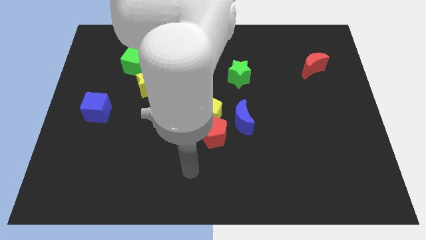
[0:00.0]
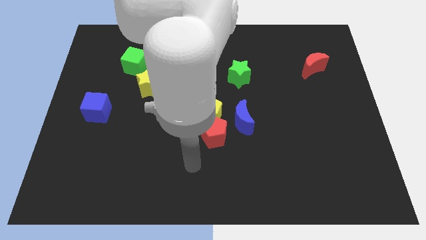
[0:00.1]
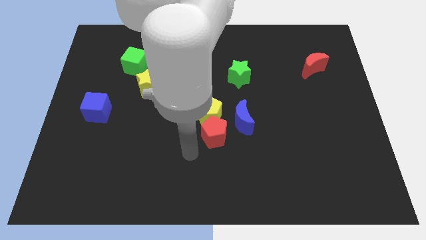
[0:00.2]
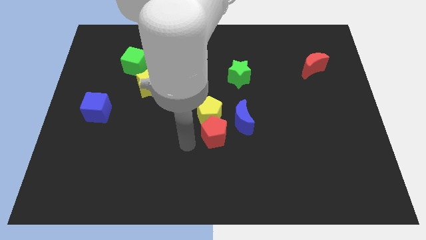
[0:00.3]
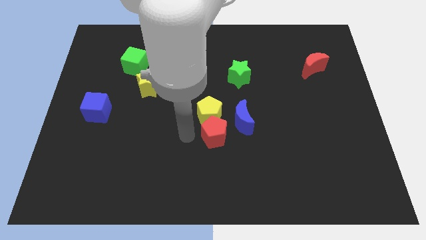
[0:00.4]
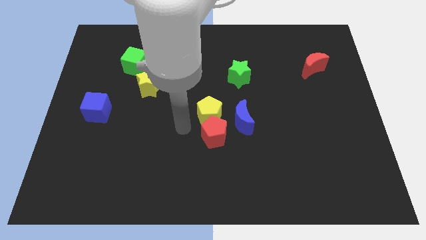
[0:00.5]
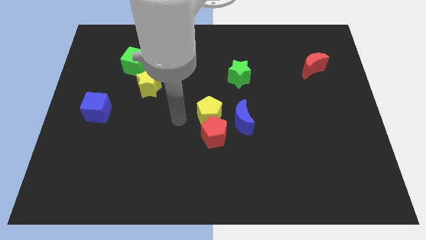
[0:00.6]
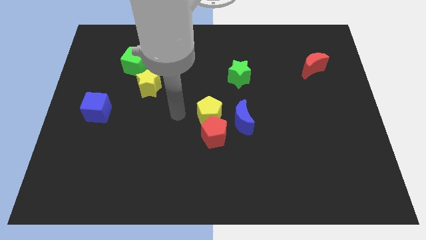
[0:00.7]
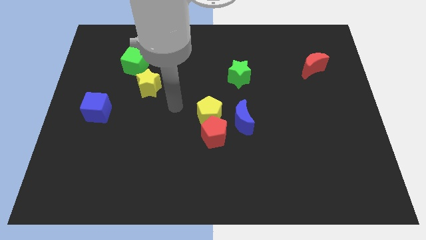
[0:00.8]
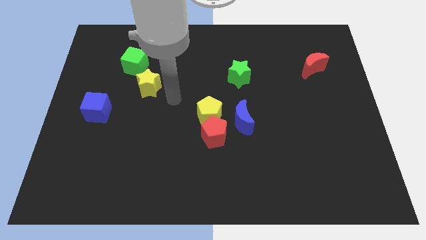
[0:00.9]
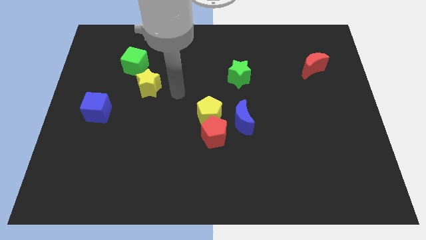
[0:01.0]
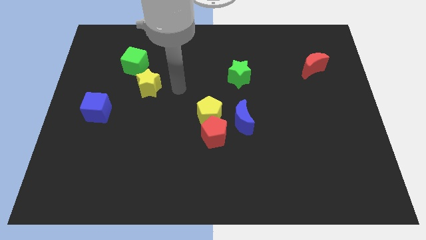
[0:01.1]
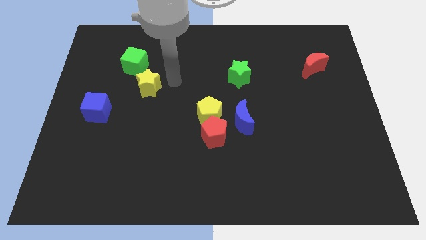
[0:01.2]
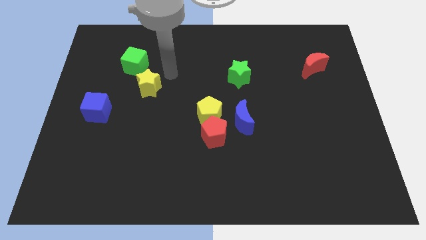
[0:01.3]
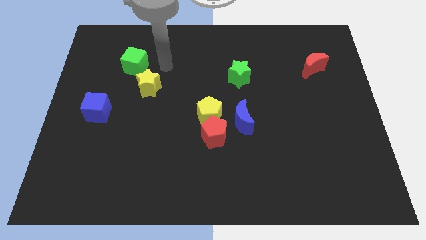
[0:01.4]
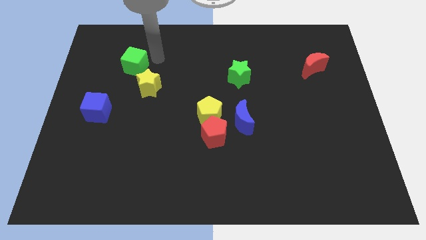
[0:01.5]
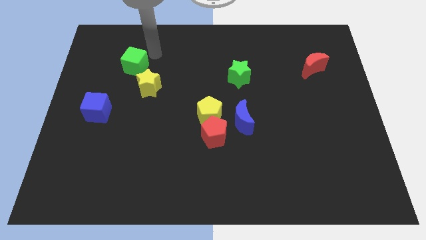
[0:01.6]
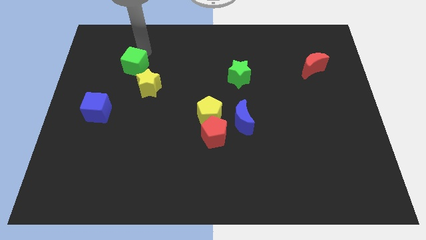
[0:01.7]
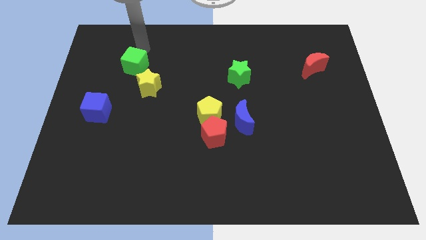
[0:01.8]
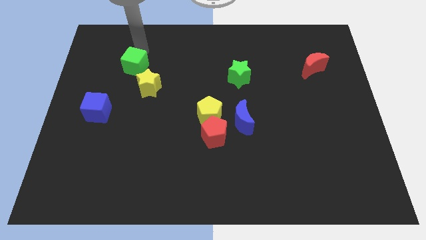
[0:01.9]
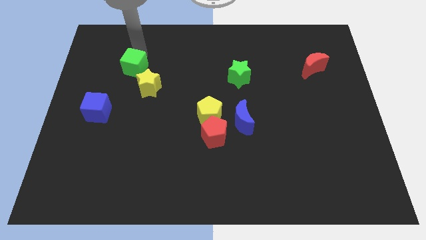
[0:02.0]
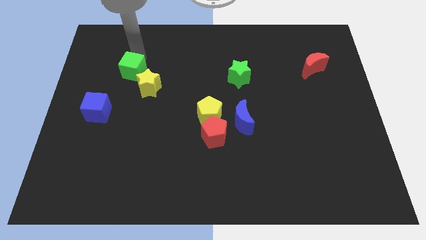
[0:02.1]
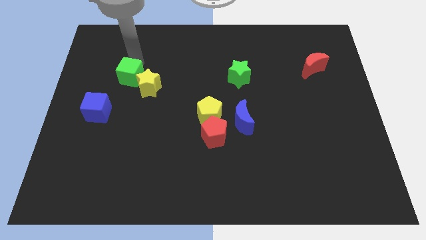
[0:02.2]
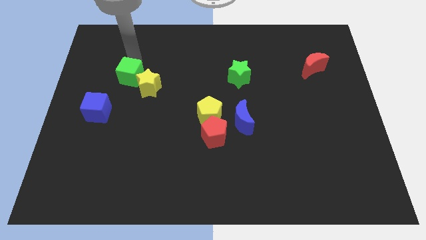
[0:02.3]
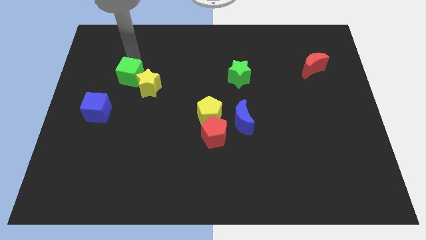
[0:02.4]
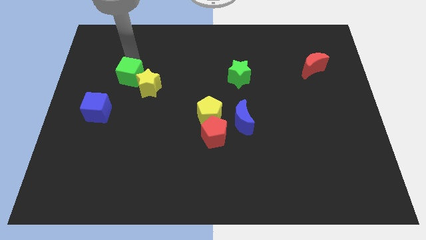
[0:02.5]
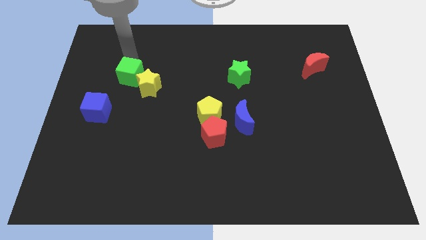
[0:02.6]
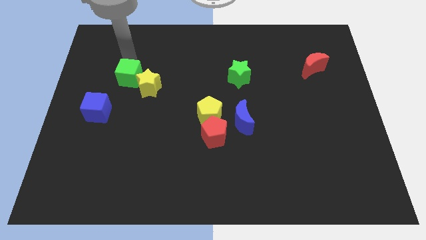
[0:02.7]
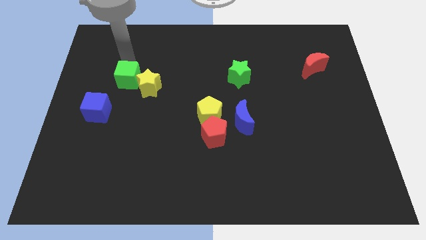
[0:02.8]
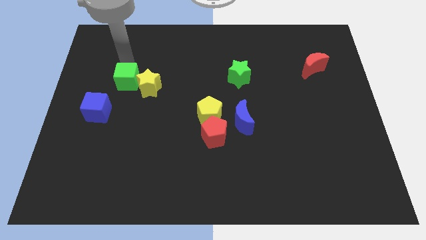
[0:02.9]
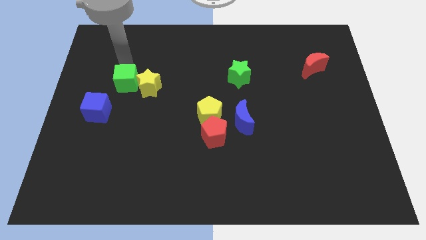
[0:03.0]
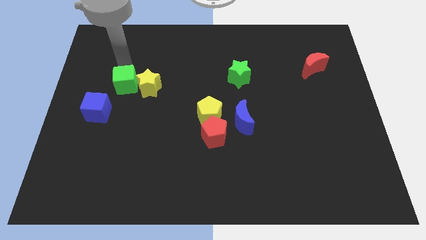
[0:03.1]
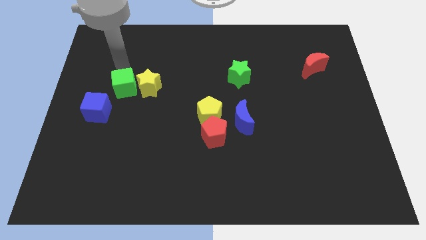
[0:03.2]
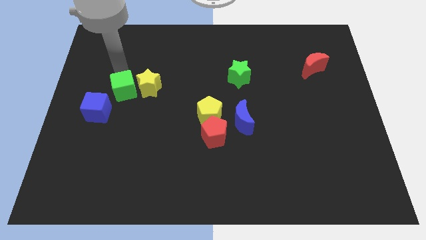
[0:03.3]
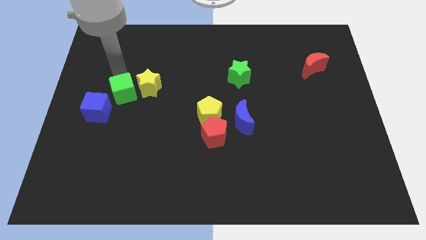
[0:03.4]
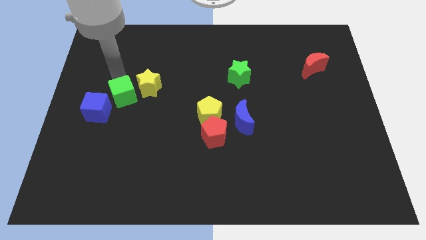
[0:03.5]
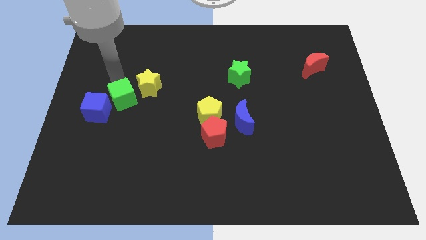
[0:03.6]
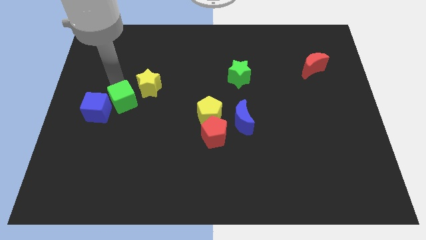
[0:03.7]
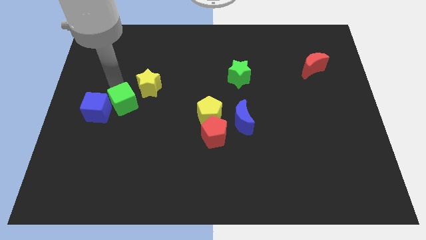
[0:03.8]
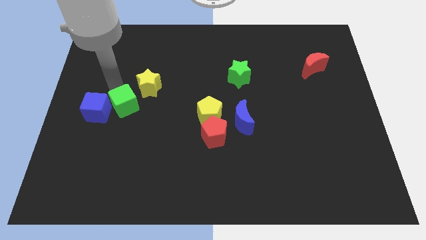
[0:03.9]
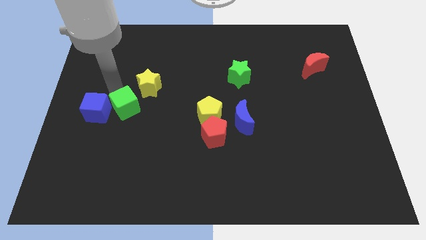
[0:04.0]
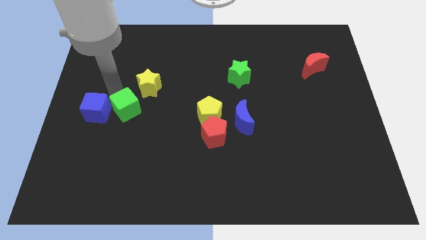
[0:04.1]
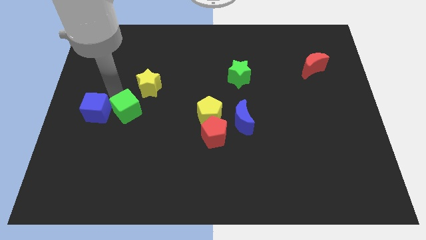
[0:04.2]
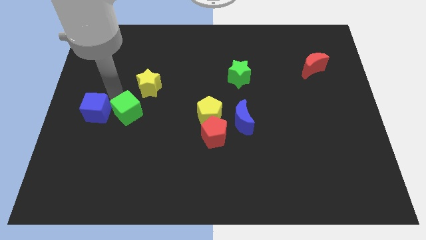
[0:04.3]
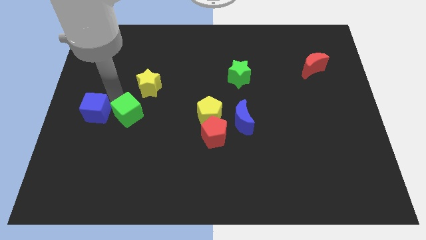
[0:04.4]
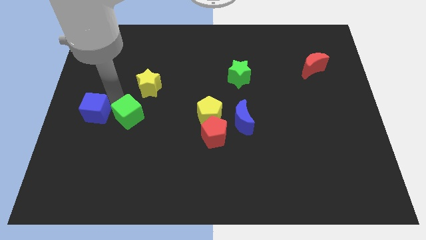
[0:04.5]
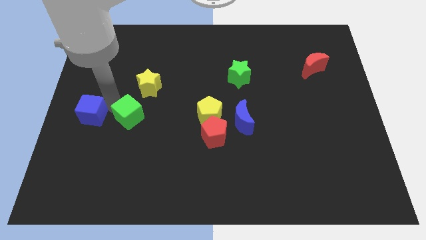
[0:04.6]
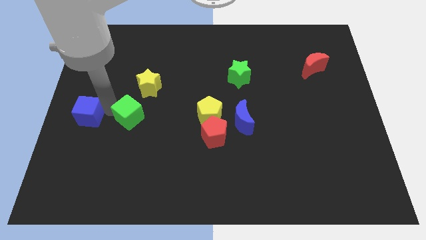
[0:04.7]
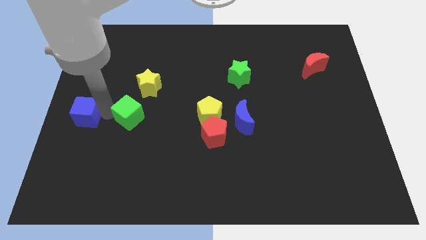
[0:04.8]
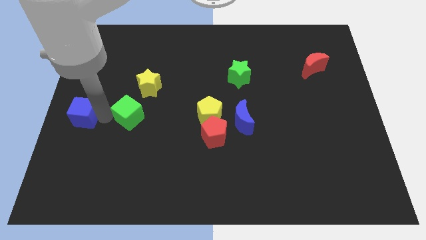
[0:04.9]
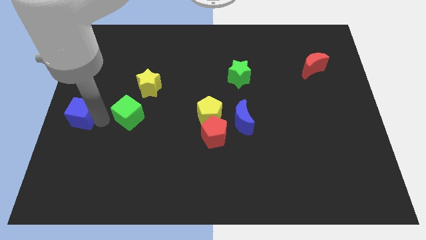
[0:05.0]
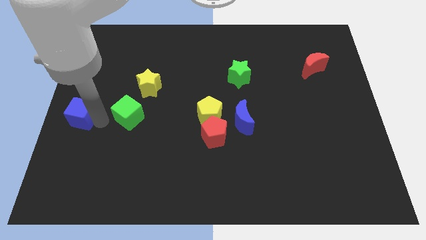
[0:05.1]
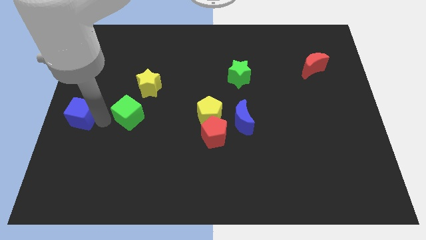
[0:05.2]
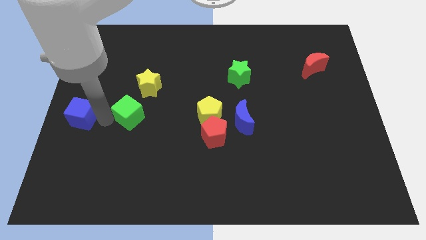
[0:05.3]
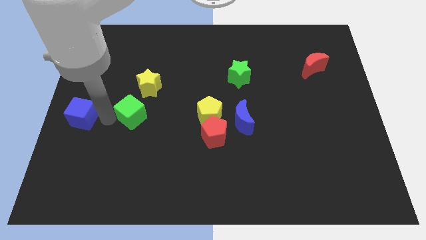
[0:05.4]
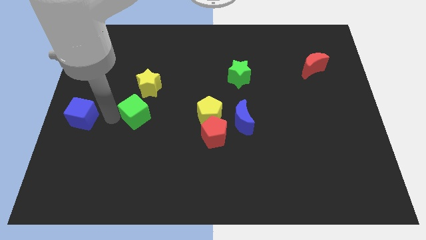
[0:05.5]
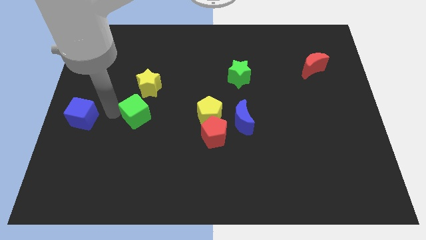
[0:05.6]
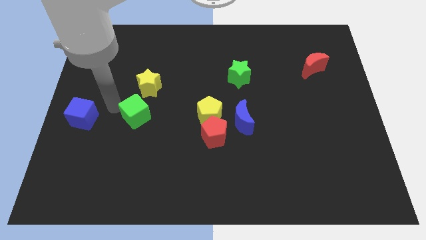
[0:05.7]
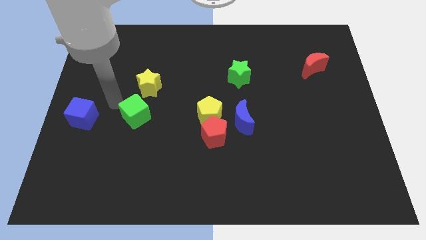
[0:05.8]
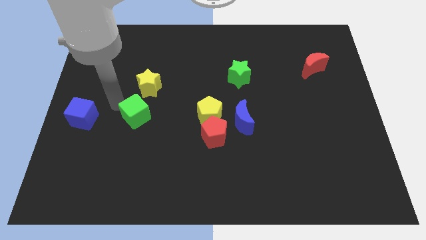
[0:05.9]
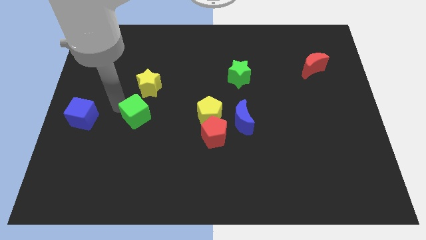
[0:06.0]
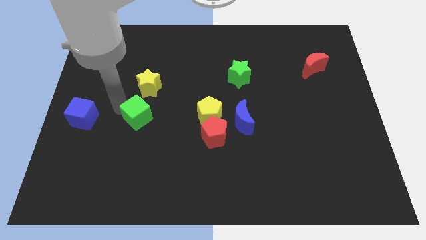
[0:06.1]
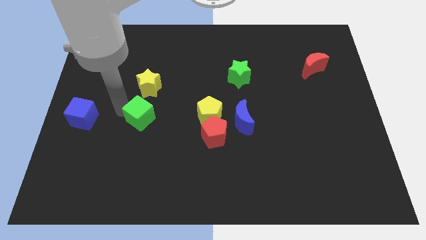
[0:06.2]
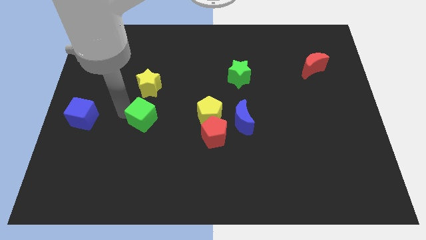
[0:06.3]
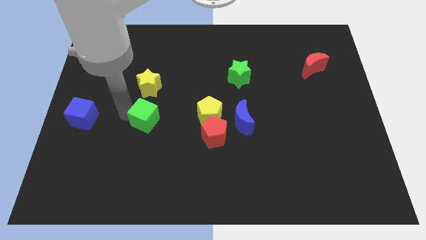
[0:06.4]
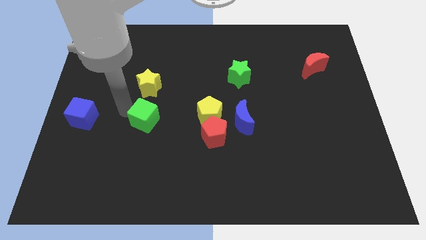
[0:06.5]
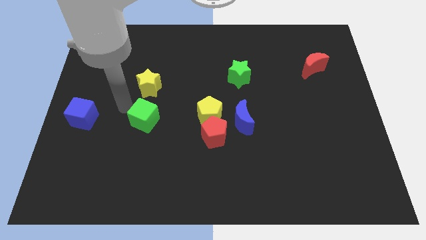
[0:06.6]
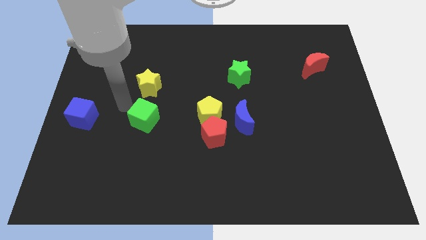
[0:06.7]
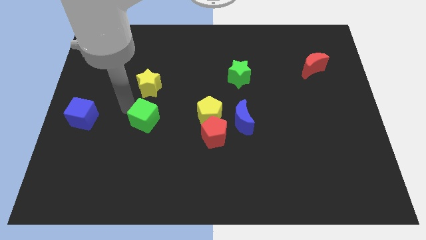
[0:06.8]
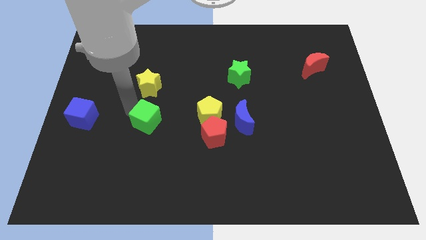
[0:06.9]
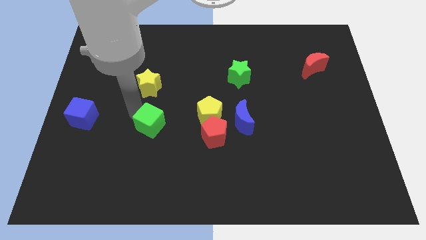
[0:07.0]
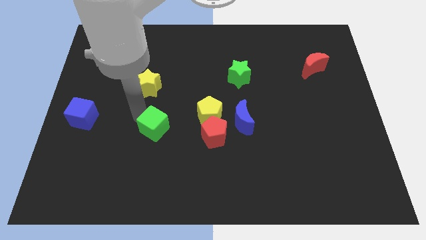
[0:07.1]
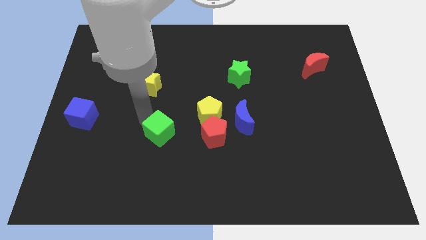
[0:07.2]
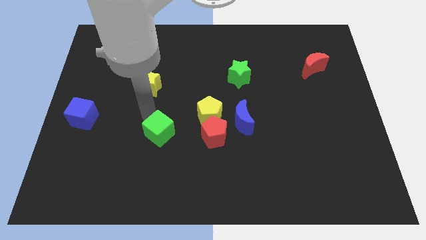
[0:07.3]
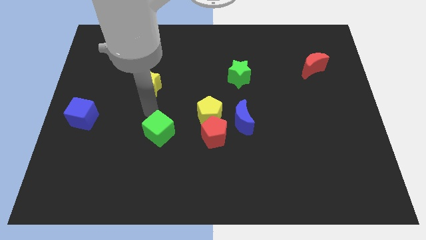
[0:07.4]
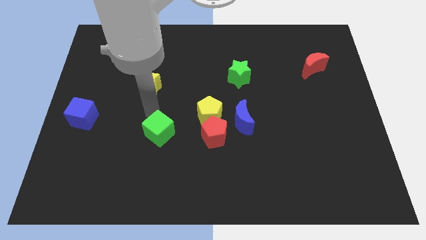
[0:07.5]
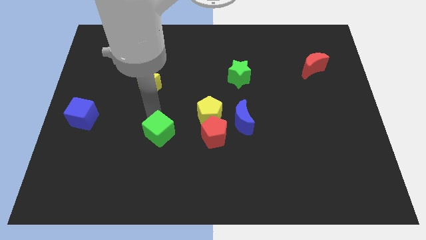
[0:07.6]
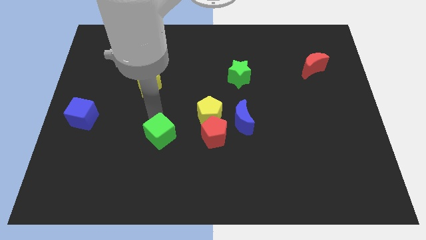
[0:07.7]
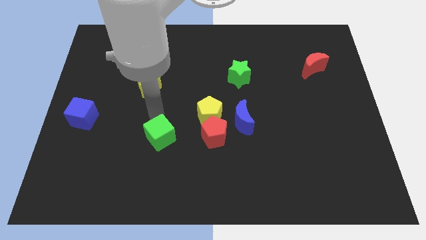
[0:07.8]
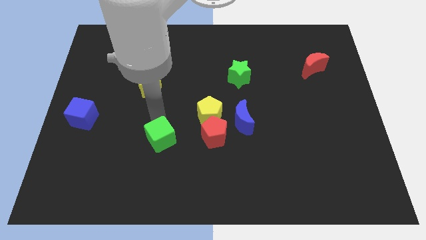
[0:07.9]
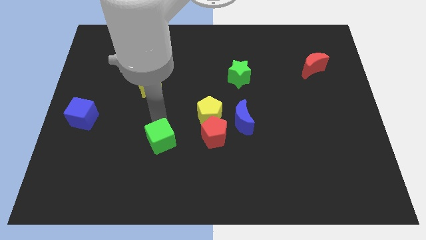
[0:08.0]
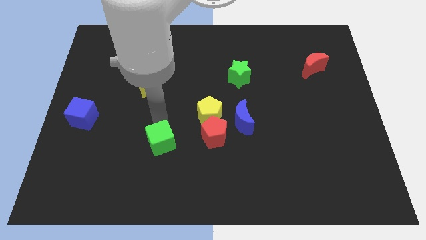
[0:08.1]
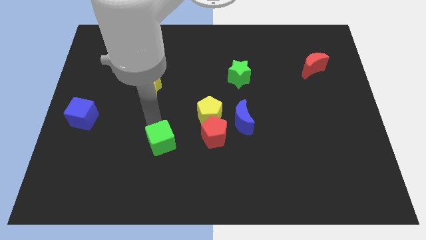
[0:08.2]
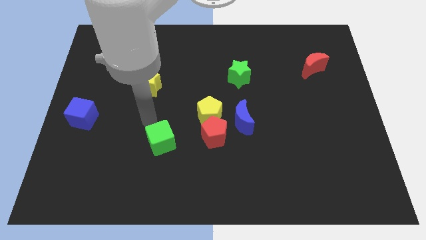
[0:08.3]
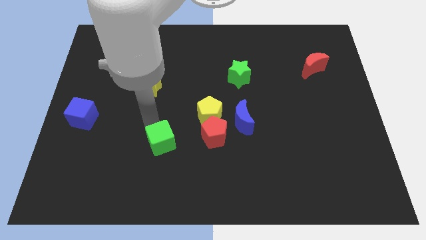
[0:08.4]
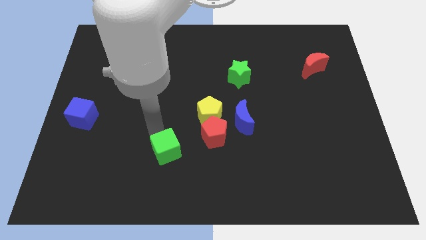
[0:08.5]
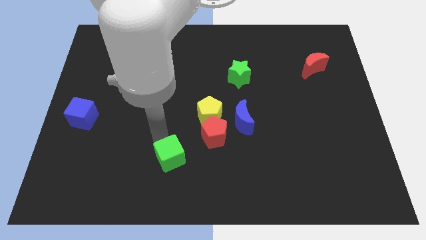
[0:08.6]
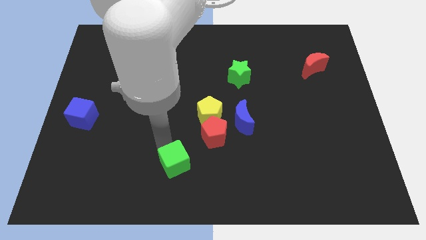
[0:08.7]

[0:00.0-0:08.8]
put the green cube to the bottom
